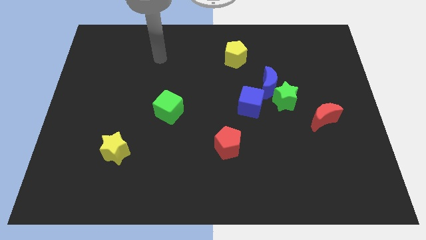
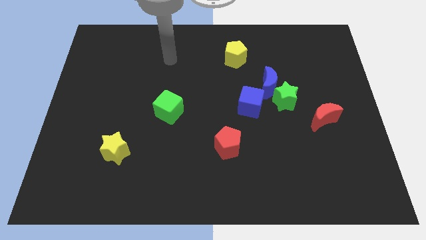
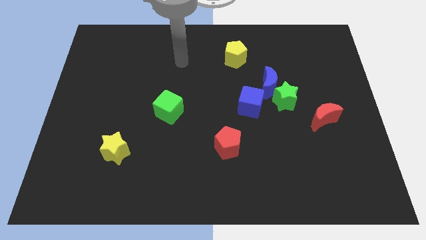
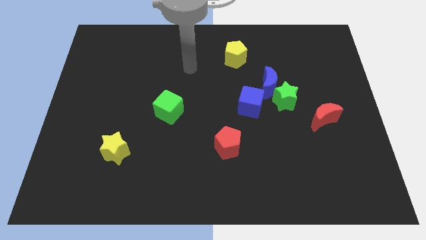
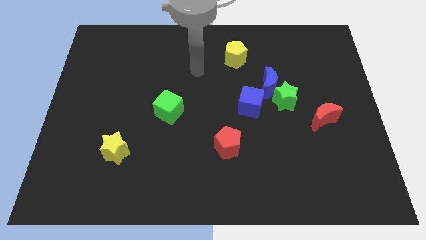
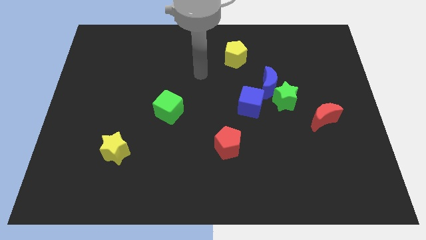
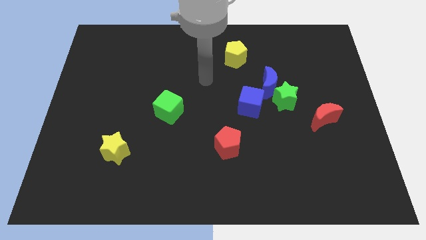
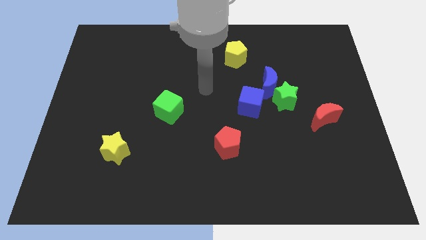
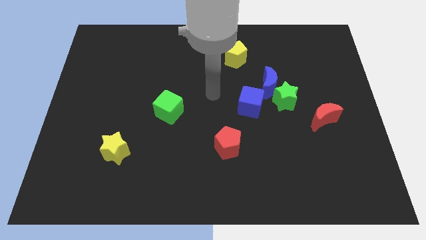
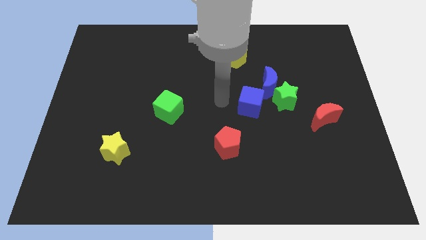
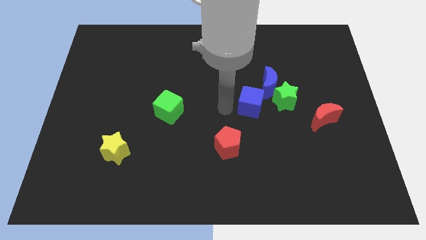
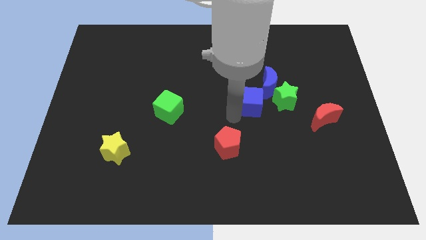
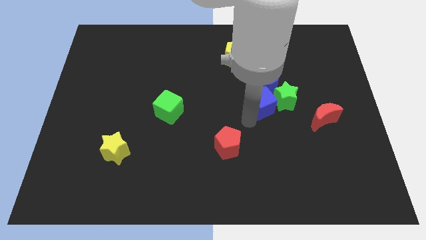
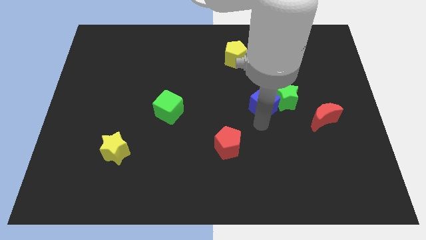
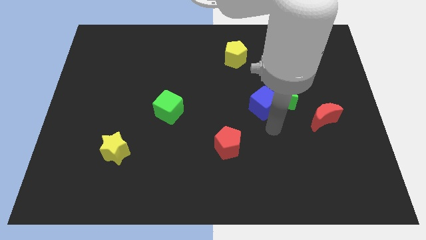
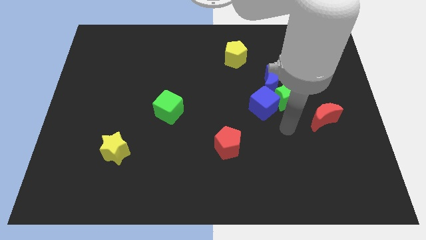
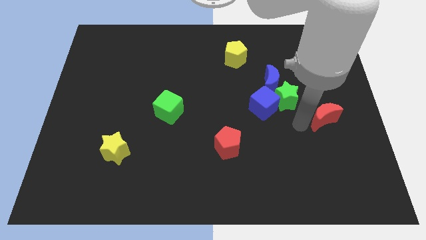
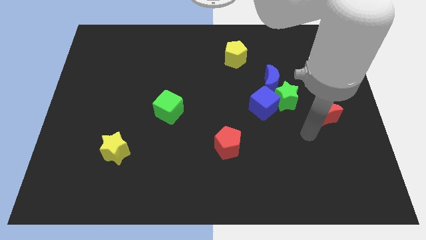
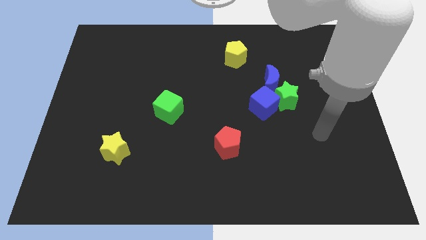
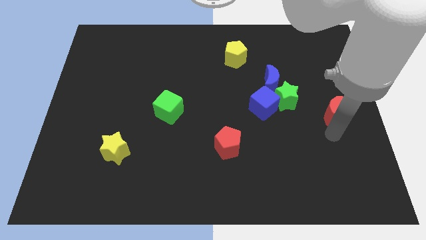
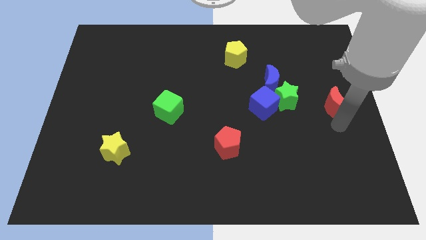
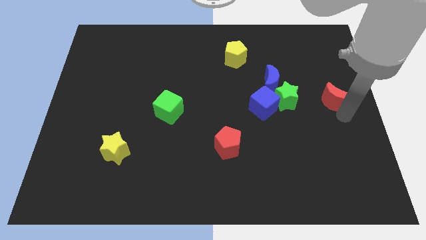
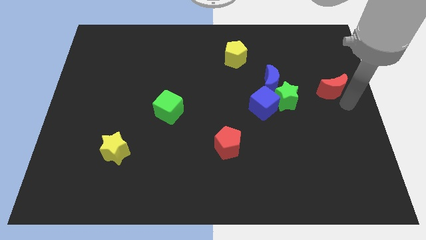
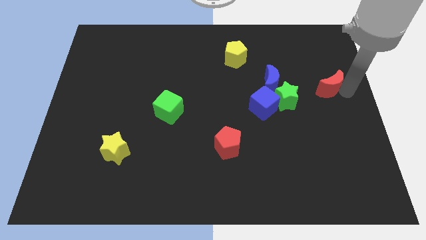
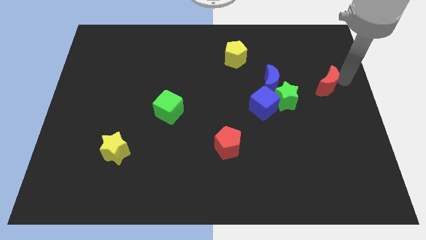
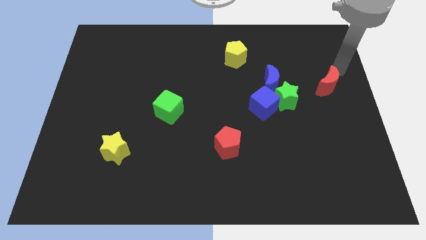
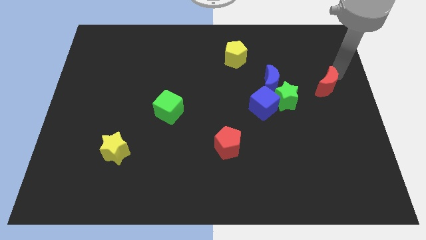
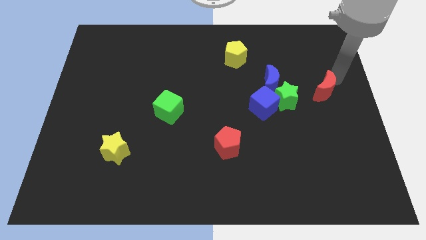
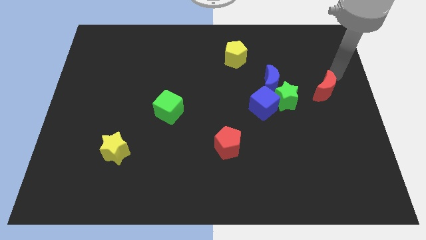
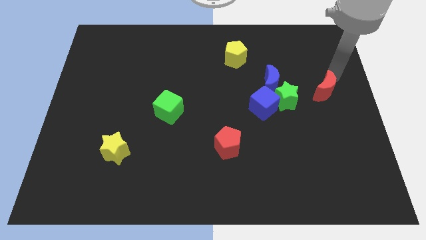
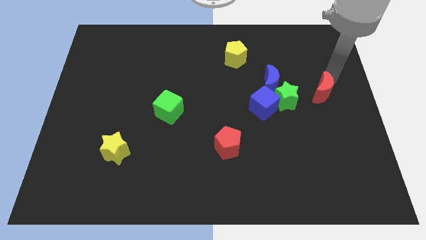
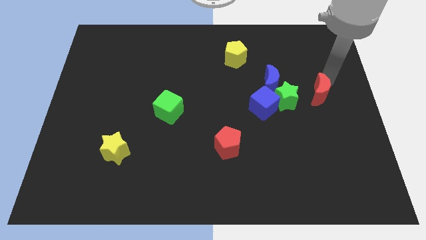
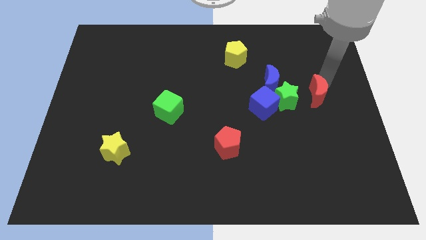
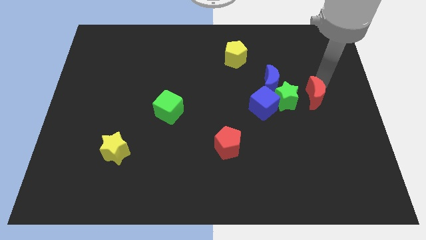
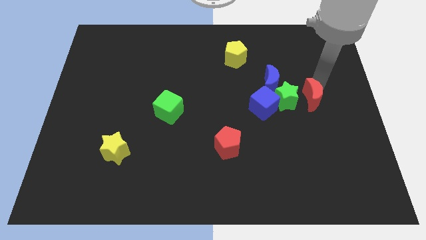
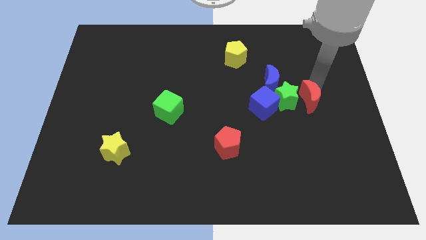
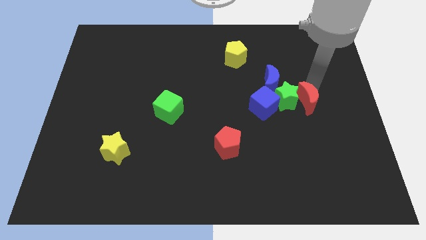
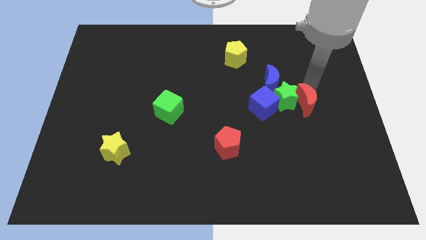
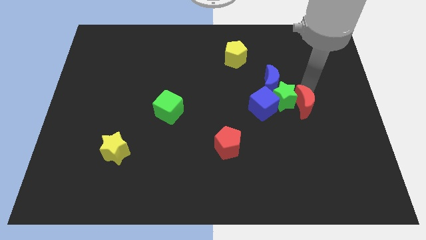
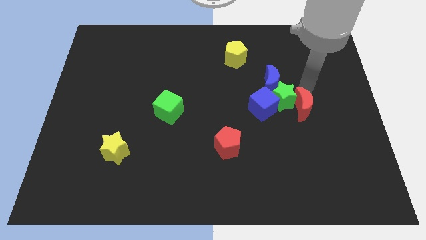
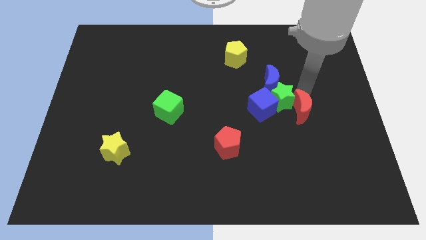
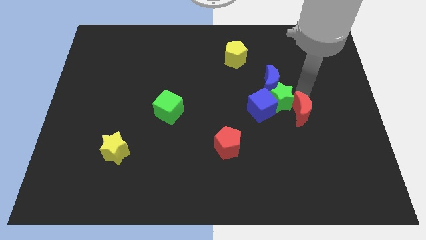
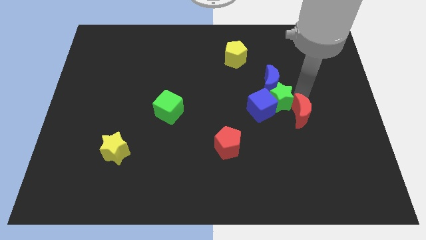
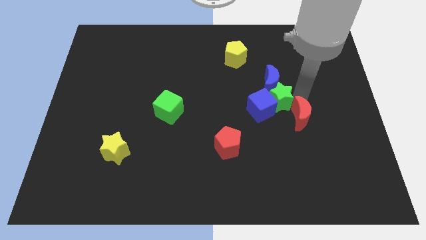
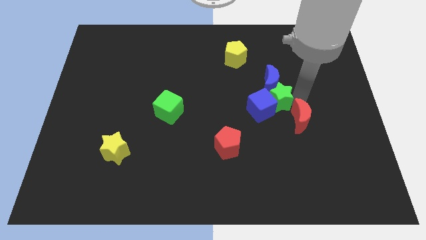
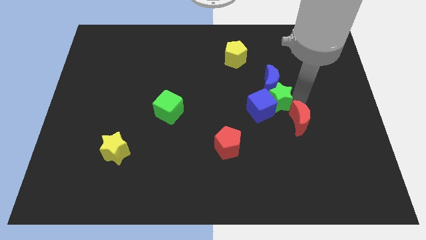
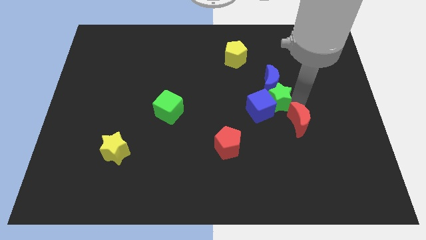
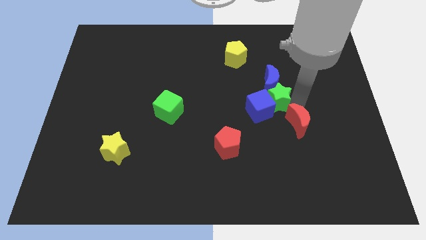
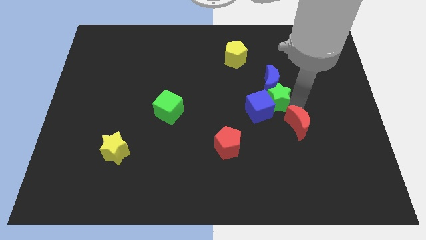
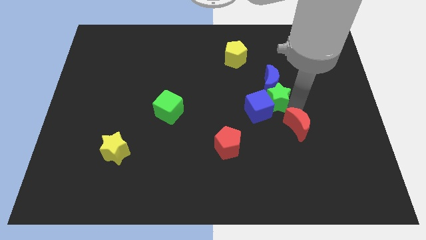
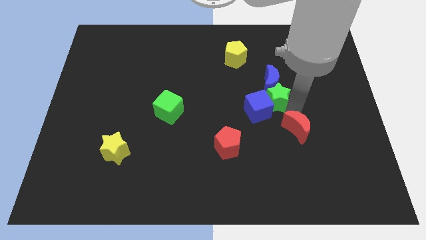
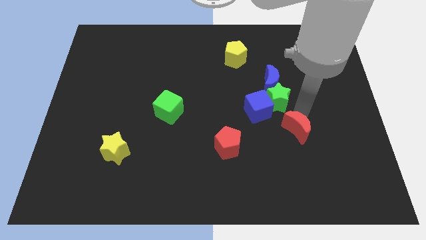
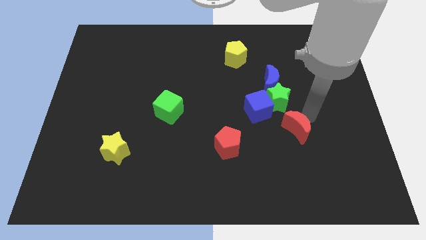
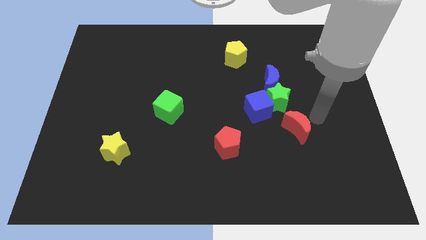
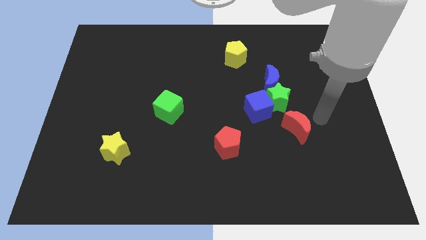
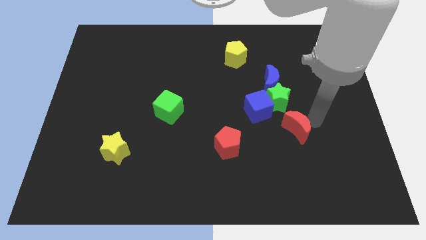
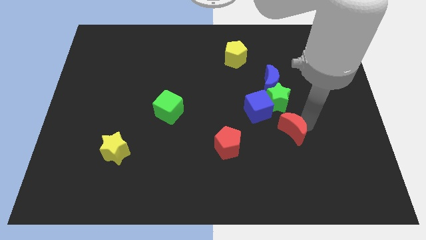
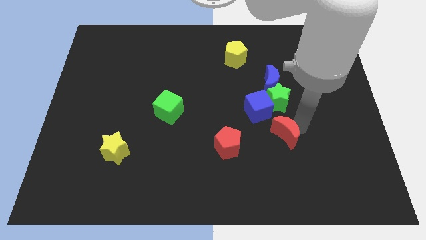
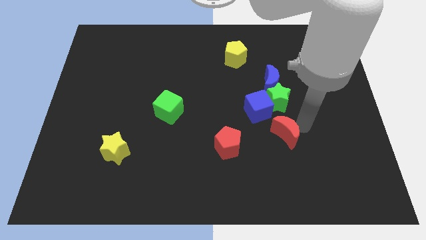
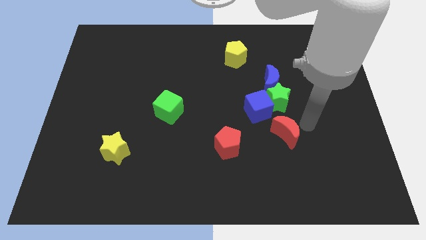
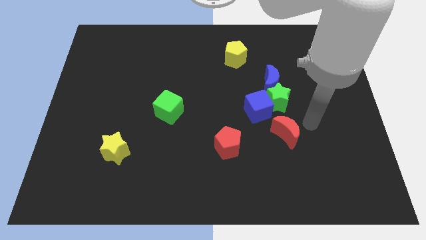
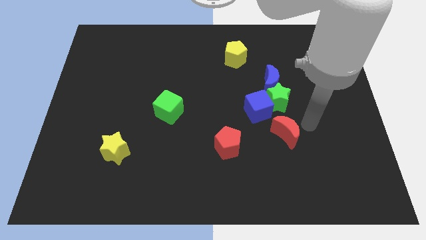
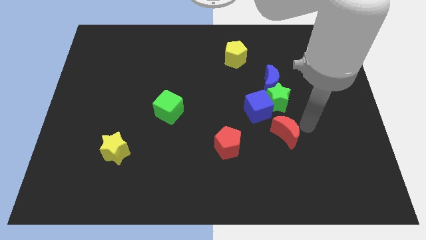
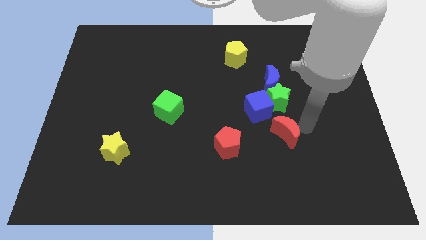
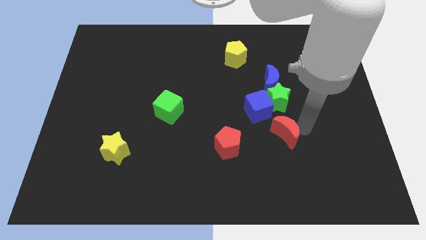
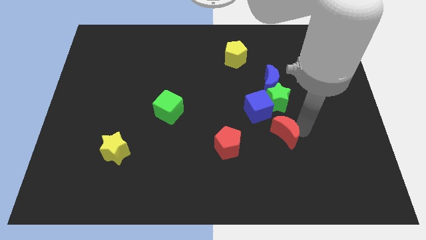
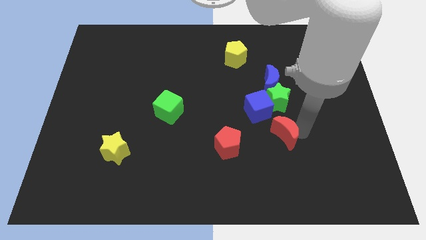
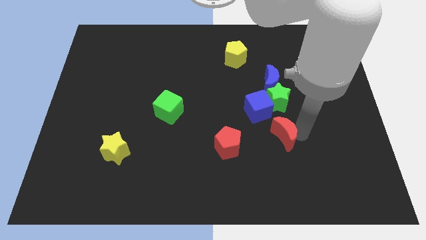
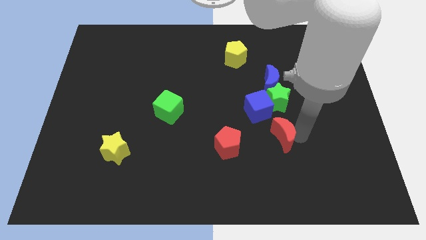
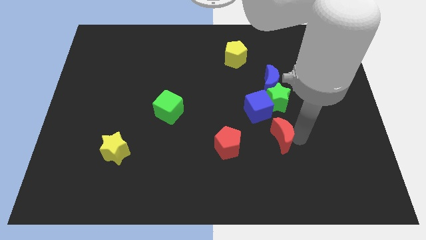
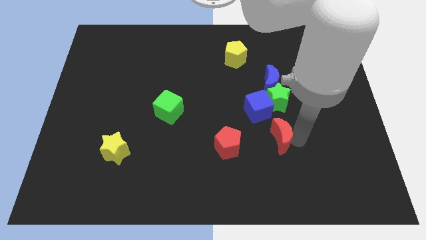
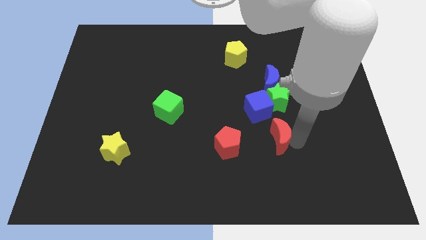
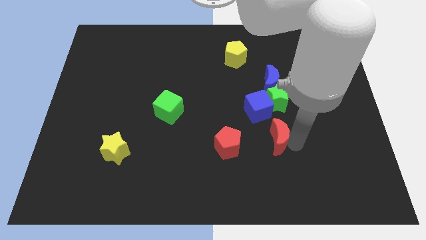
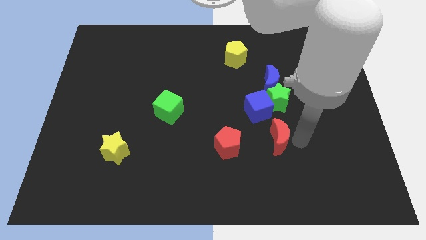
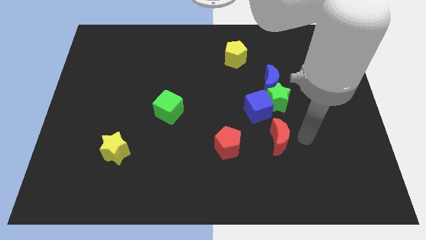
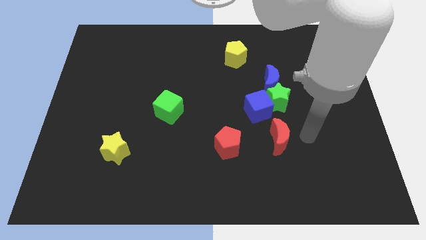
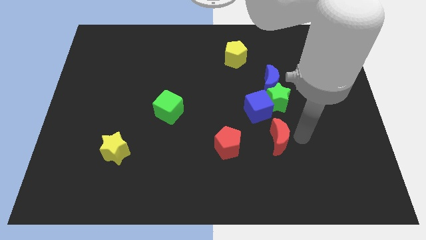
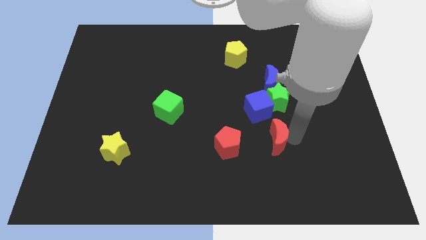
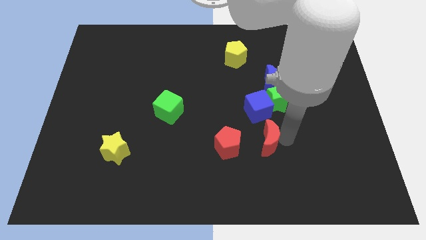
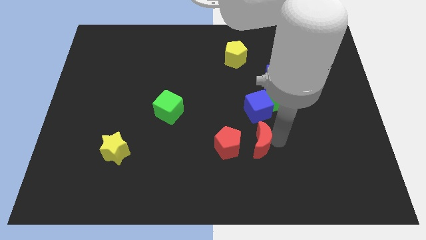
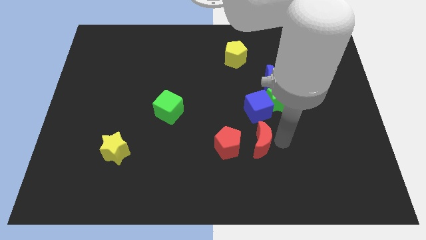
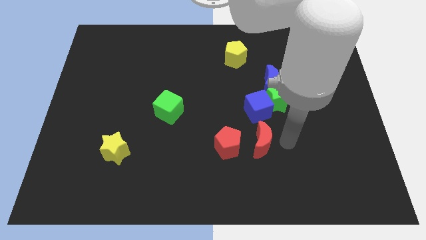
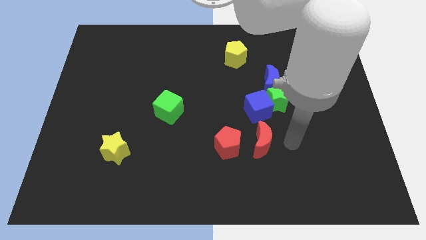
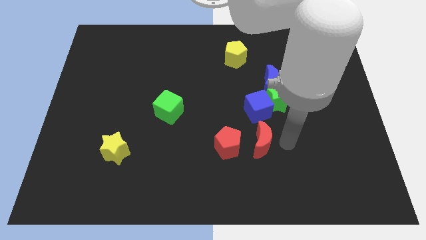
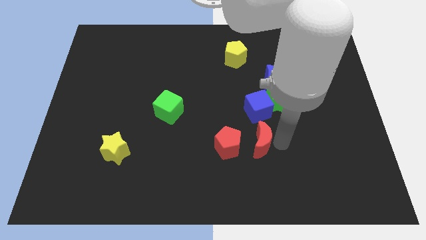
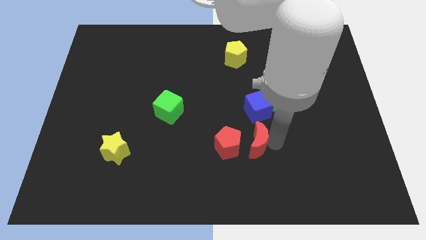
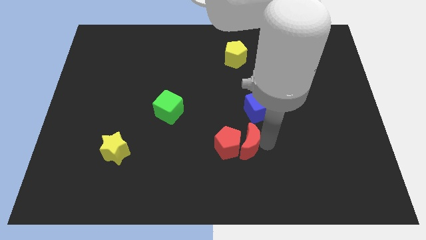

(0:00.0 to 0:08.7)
slide the red moon close to the red pentagon
